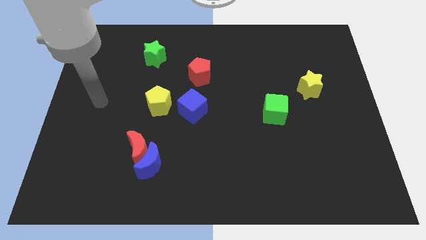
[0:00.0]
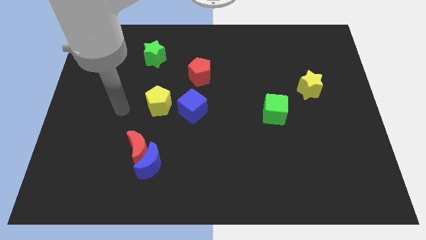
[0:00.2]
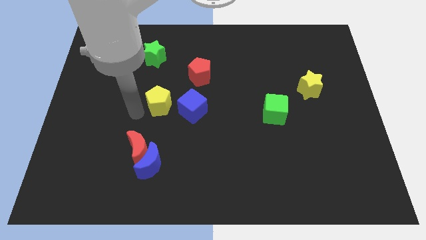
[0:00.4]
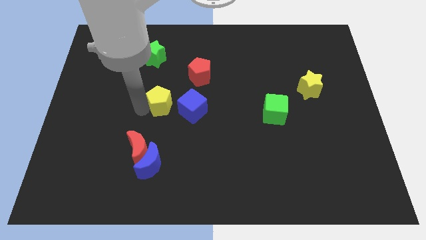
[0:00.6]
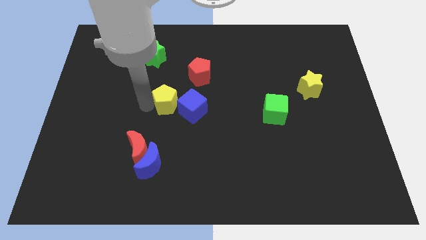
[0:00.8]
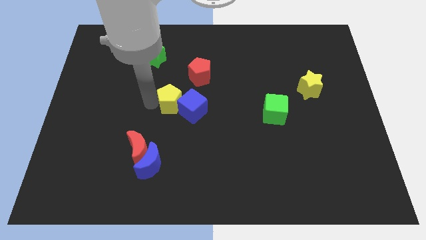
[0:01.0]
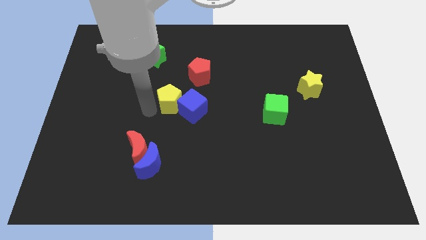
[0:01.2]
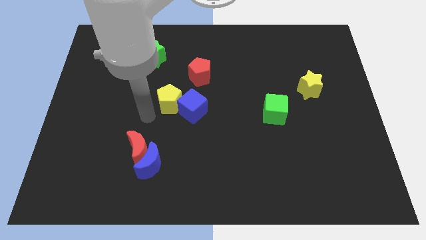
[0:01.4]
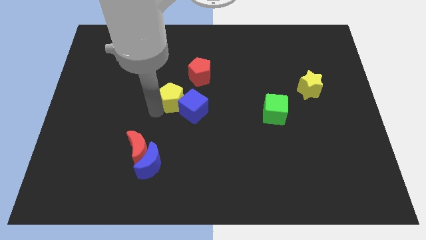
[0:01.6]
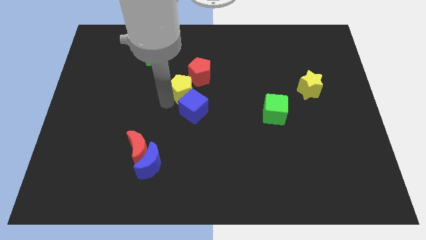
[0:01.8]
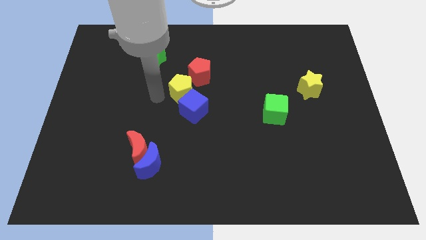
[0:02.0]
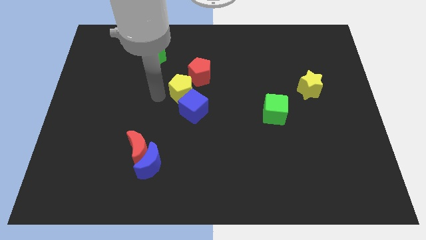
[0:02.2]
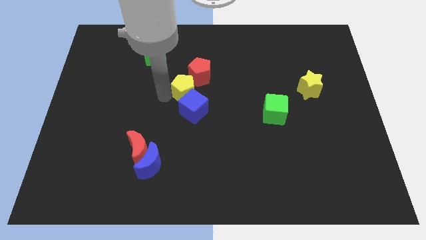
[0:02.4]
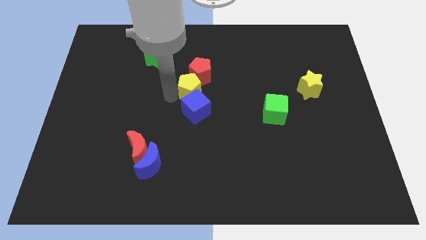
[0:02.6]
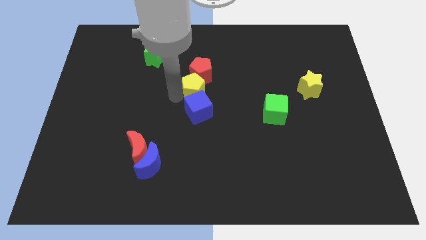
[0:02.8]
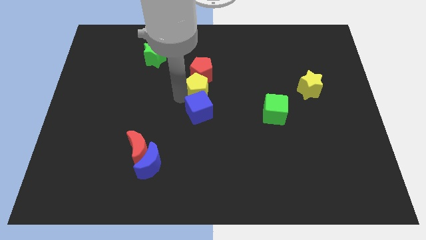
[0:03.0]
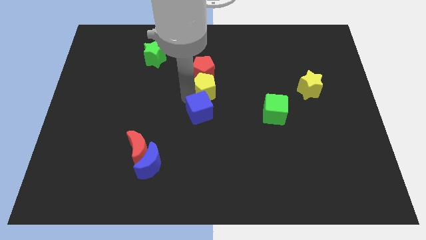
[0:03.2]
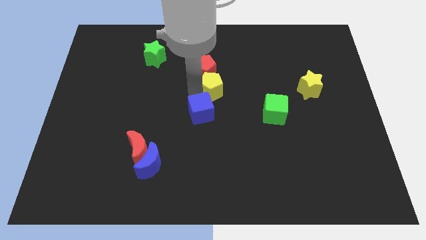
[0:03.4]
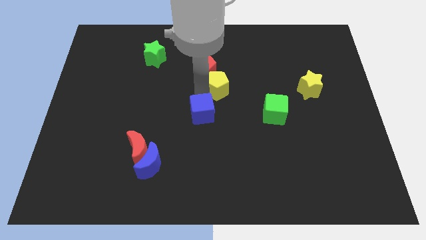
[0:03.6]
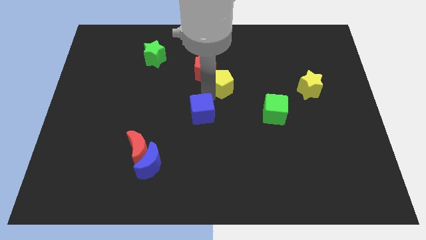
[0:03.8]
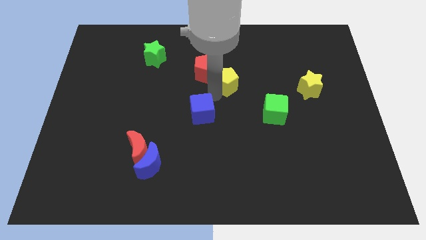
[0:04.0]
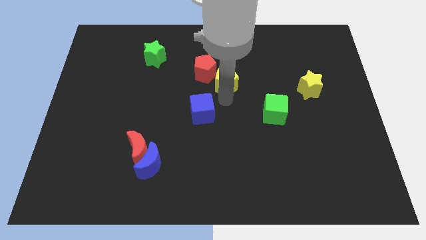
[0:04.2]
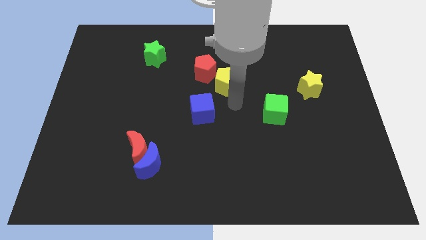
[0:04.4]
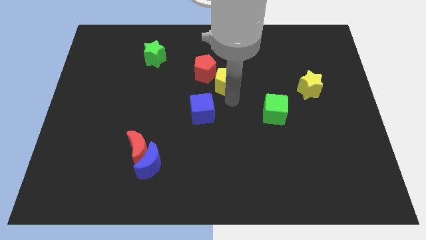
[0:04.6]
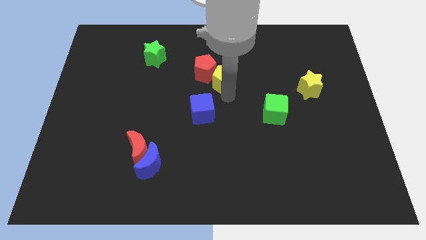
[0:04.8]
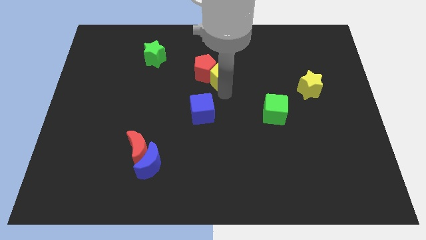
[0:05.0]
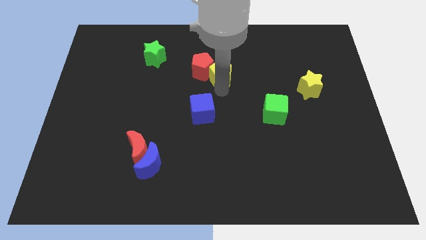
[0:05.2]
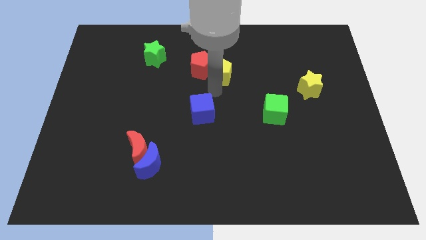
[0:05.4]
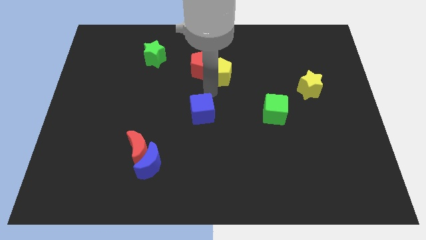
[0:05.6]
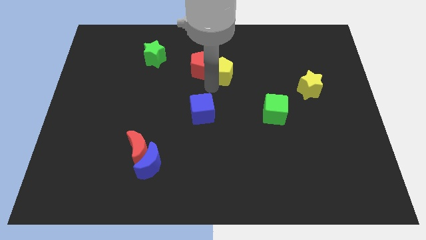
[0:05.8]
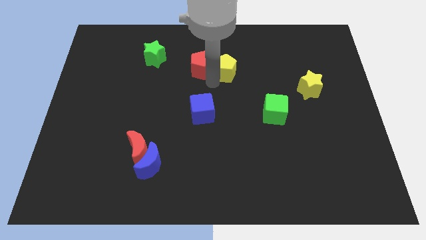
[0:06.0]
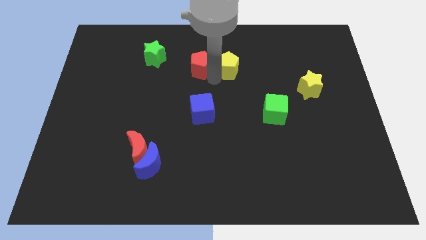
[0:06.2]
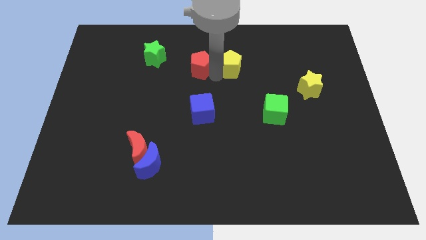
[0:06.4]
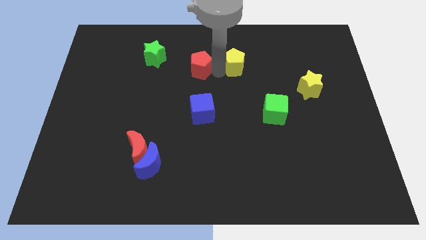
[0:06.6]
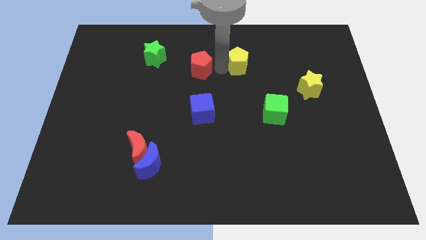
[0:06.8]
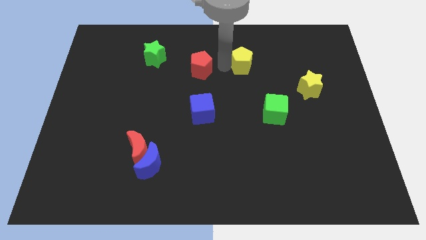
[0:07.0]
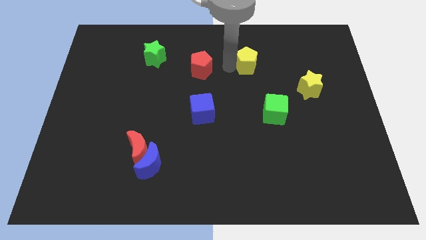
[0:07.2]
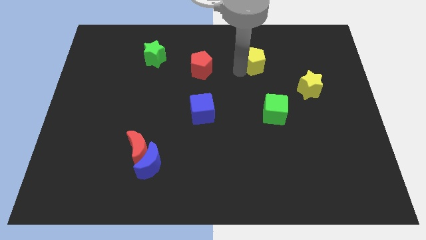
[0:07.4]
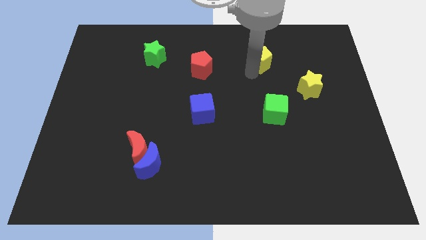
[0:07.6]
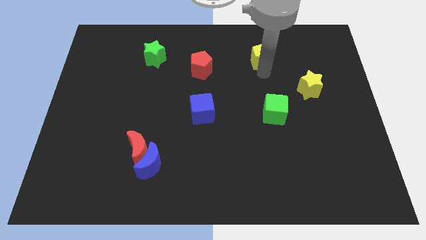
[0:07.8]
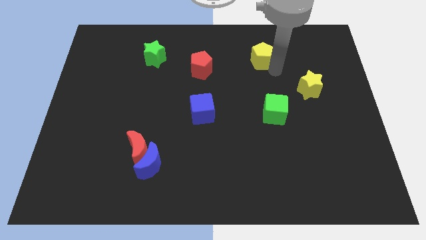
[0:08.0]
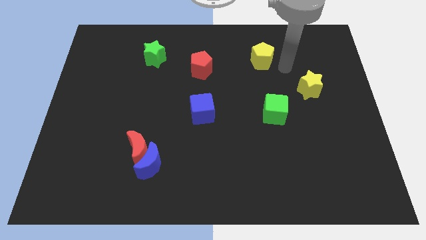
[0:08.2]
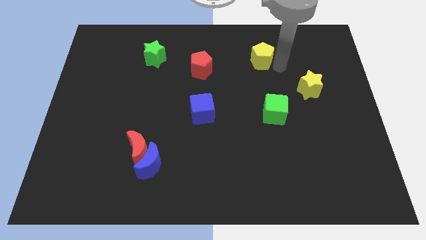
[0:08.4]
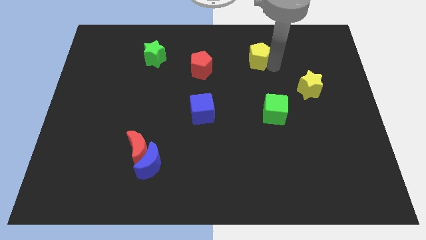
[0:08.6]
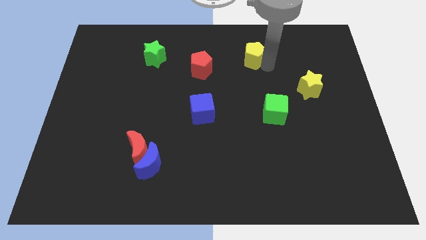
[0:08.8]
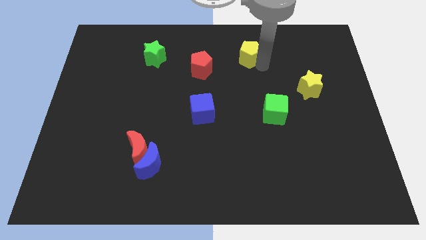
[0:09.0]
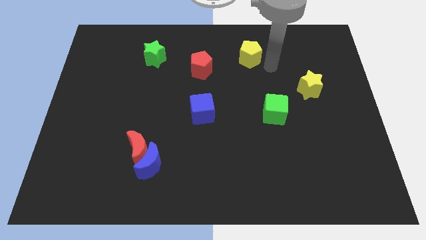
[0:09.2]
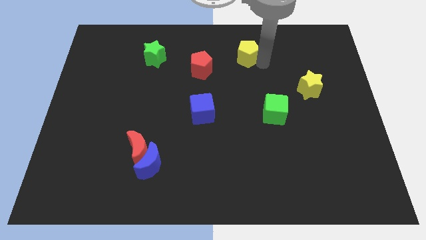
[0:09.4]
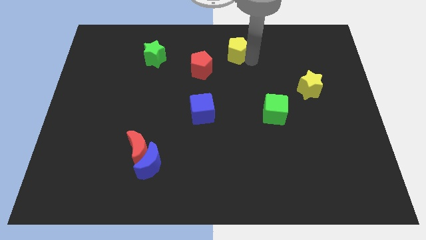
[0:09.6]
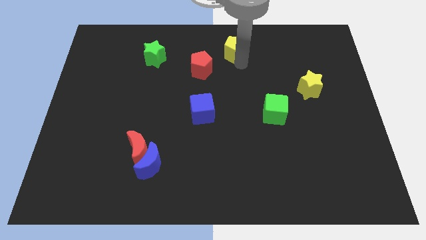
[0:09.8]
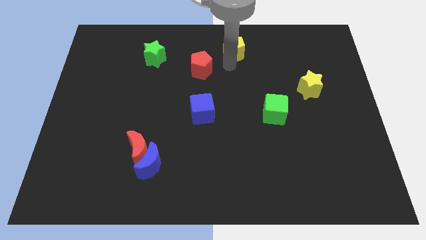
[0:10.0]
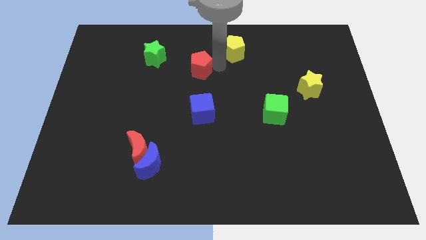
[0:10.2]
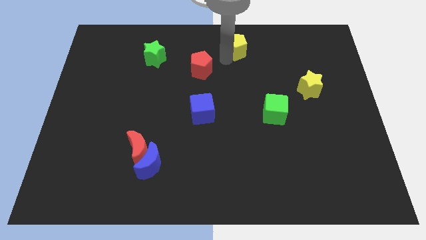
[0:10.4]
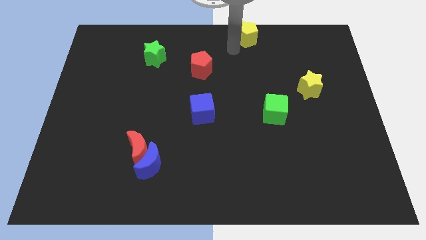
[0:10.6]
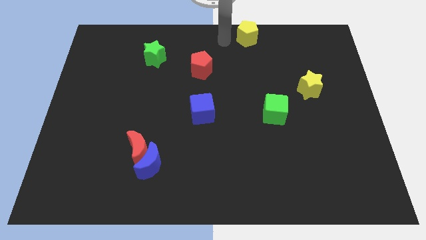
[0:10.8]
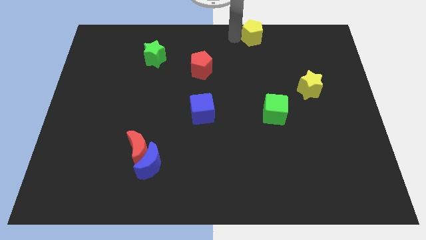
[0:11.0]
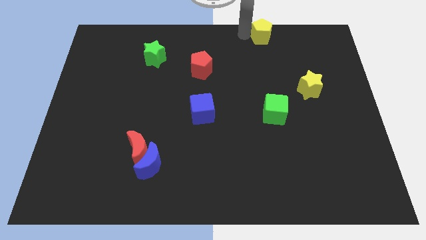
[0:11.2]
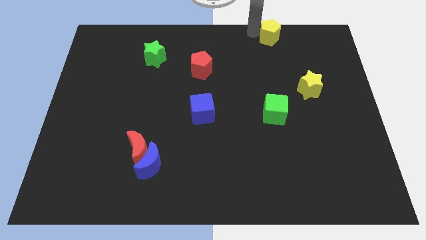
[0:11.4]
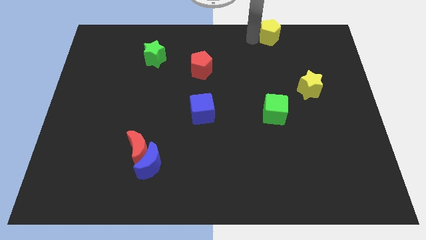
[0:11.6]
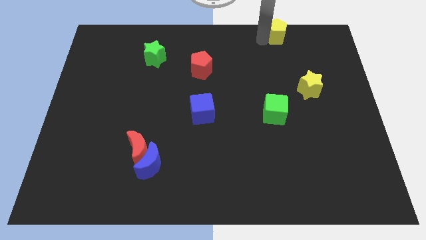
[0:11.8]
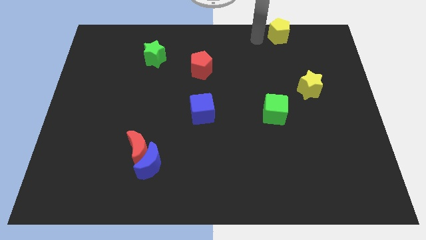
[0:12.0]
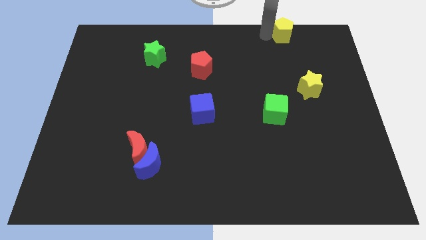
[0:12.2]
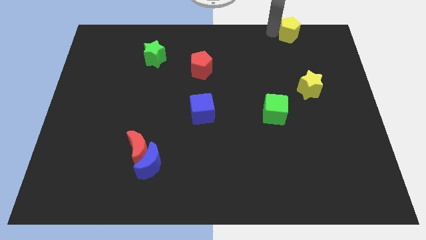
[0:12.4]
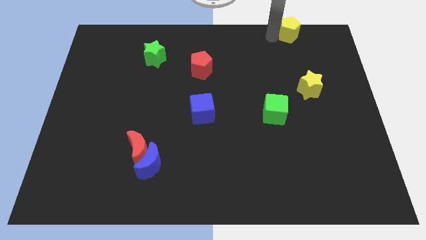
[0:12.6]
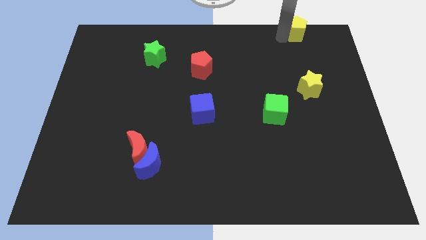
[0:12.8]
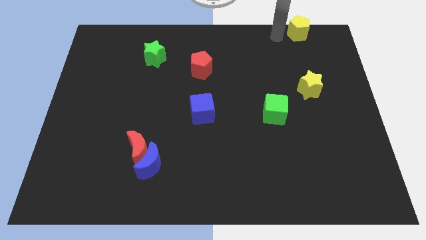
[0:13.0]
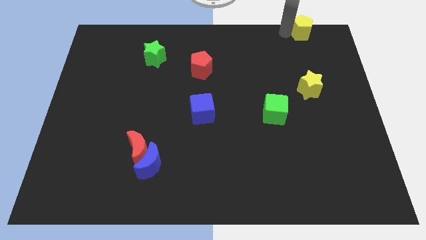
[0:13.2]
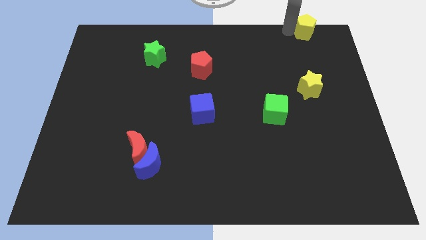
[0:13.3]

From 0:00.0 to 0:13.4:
move the yellow pentagon to the top right corner
